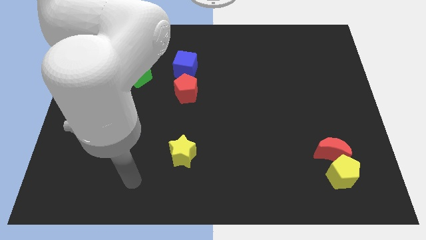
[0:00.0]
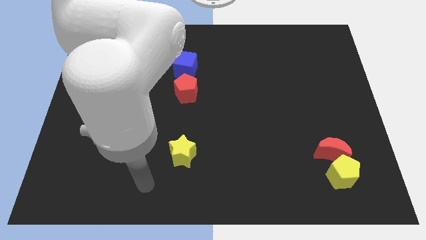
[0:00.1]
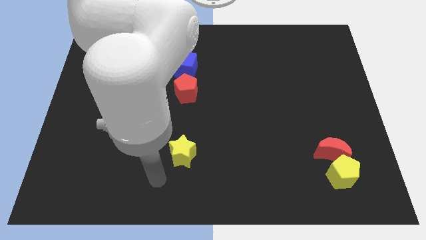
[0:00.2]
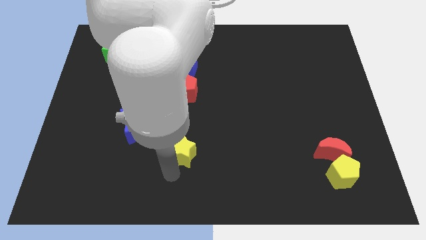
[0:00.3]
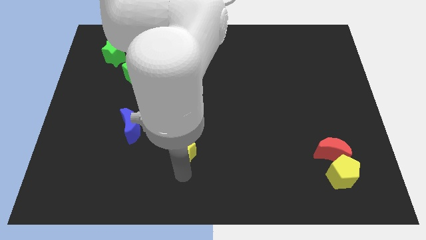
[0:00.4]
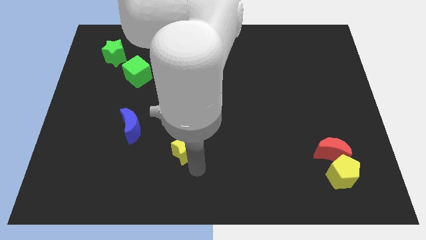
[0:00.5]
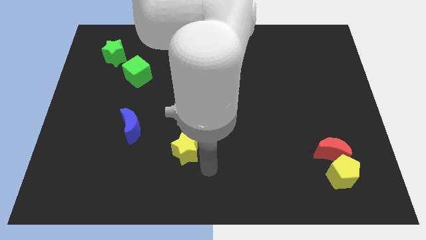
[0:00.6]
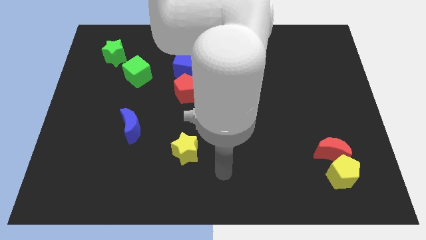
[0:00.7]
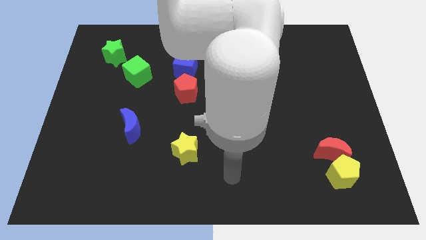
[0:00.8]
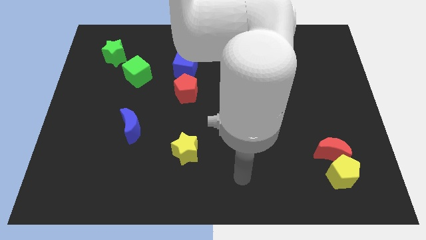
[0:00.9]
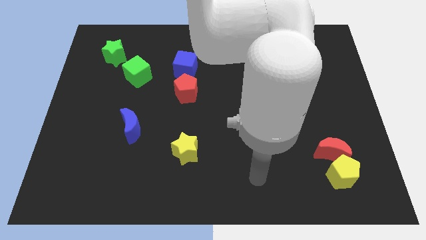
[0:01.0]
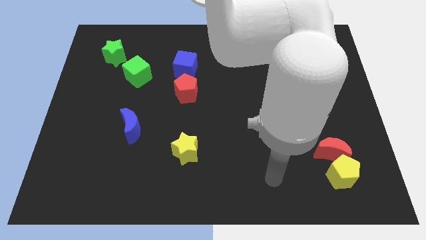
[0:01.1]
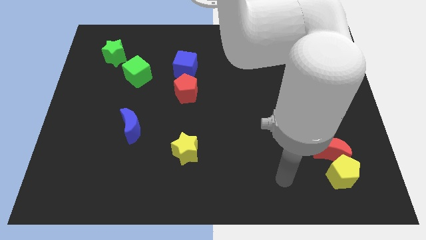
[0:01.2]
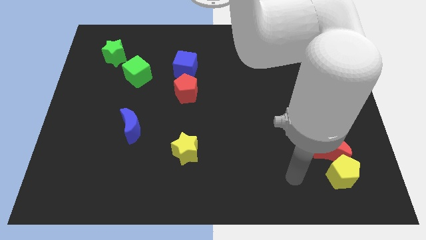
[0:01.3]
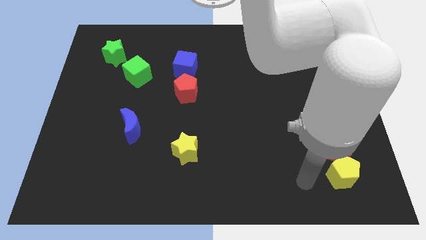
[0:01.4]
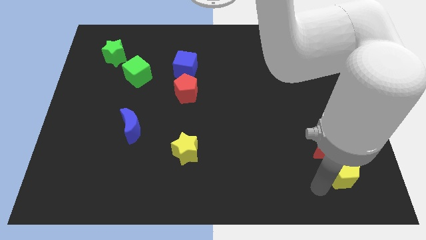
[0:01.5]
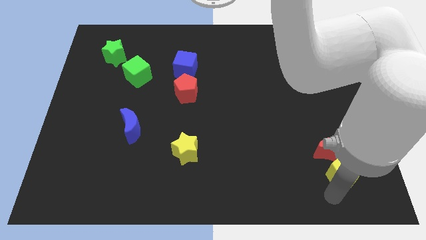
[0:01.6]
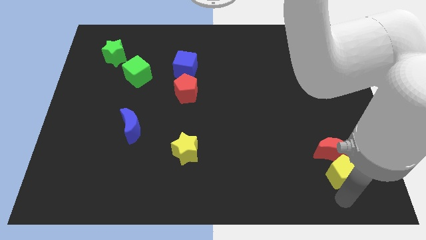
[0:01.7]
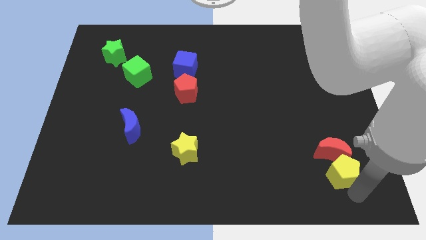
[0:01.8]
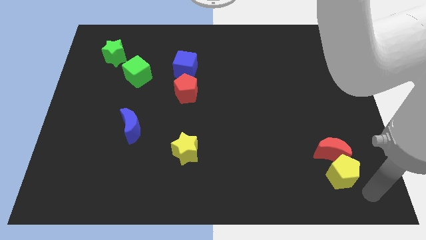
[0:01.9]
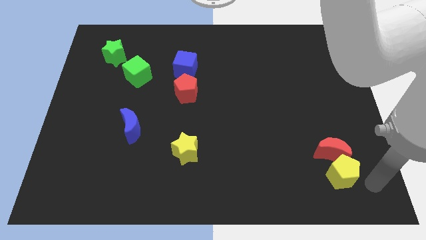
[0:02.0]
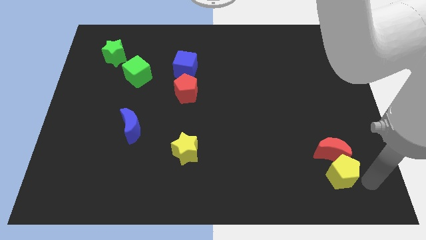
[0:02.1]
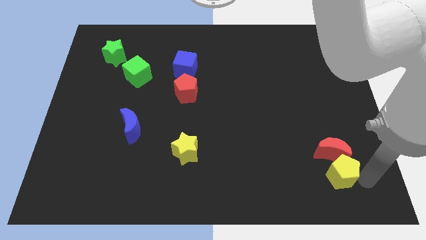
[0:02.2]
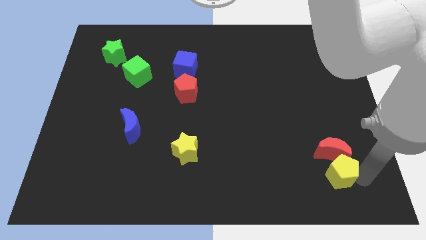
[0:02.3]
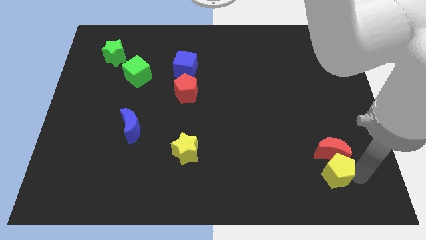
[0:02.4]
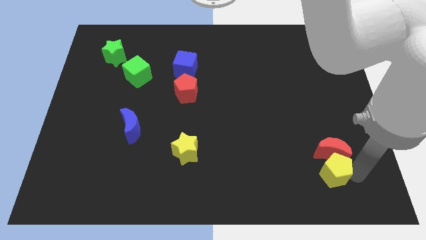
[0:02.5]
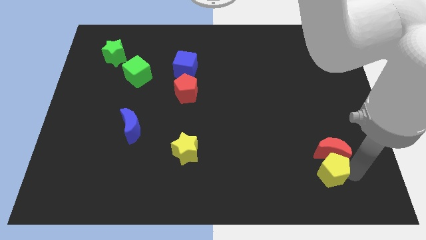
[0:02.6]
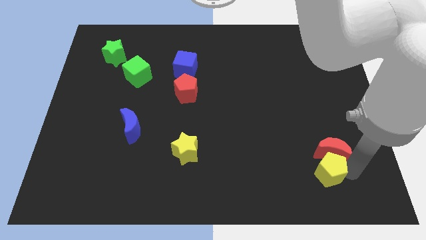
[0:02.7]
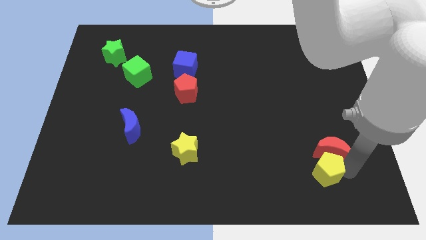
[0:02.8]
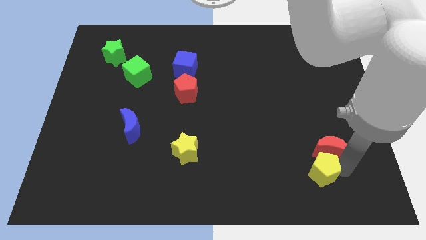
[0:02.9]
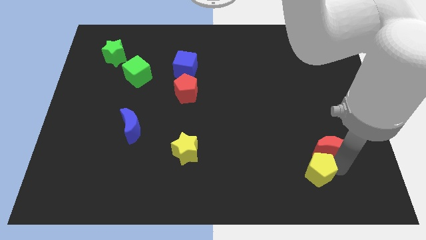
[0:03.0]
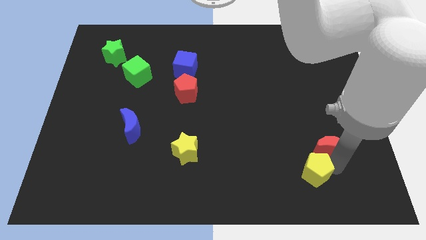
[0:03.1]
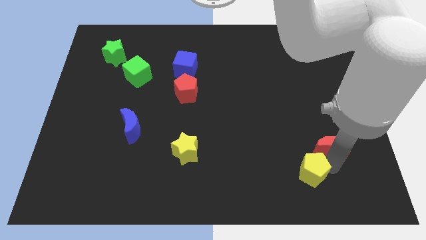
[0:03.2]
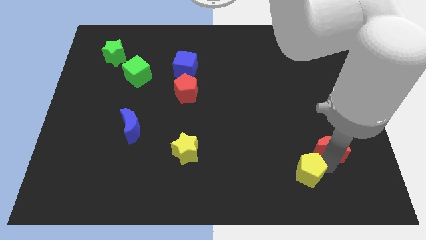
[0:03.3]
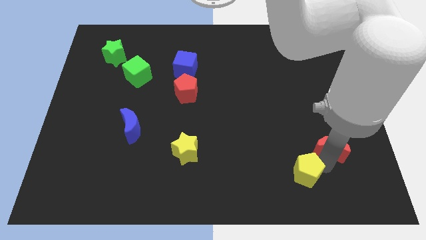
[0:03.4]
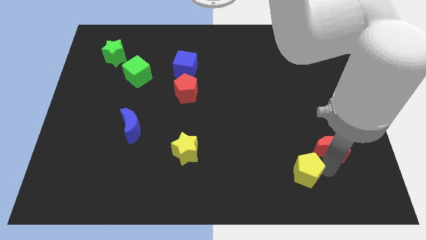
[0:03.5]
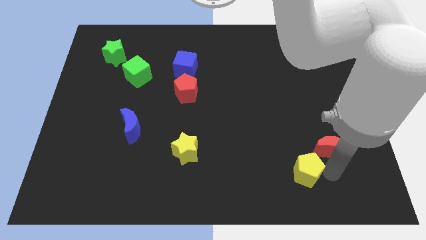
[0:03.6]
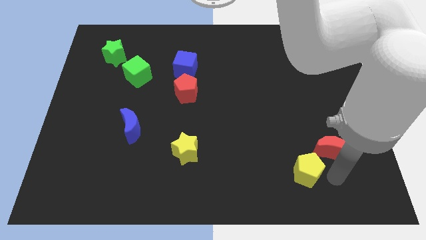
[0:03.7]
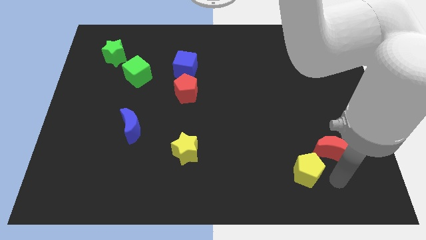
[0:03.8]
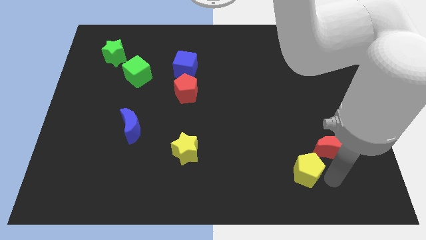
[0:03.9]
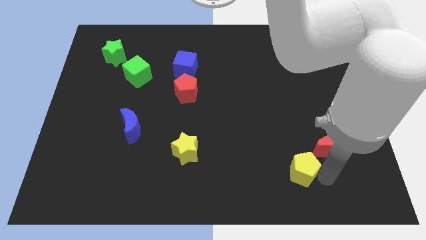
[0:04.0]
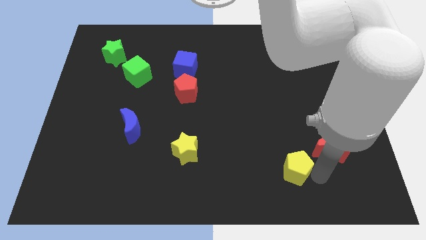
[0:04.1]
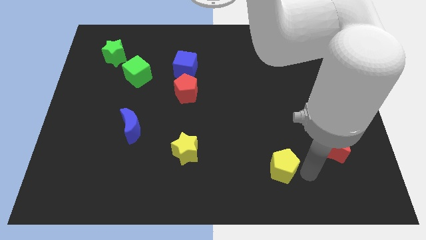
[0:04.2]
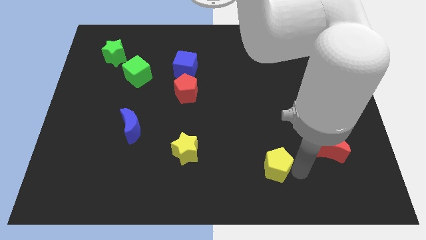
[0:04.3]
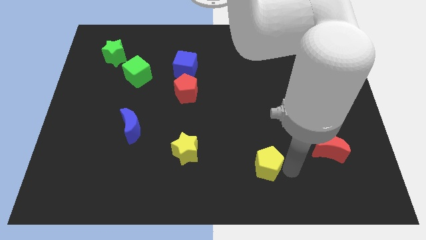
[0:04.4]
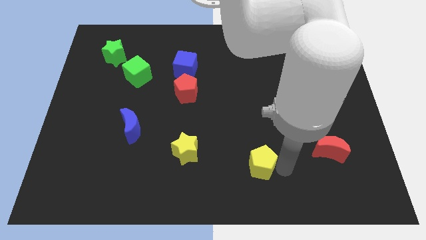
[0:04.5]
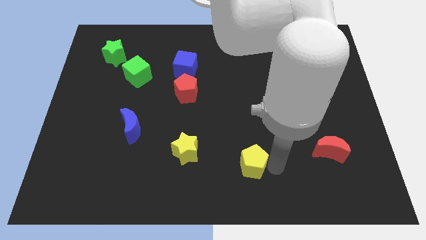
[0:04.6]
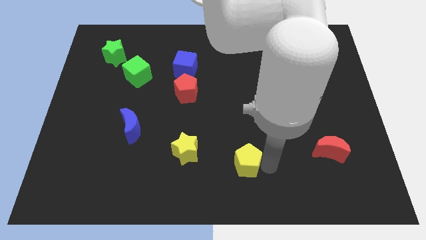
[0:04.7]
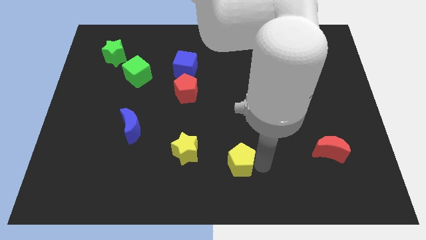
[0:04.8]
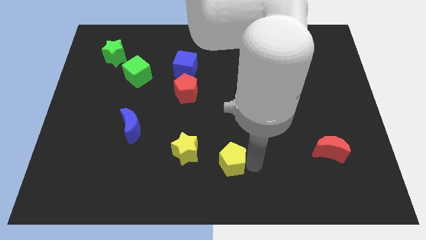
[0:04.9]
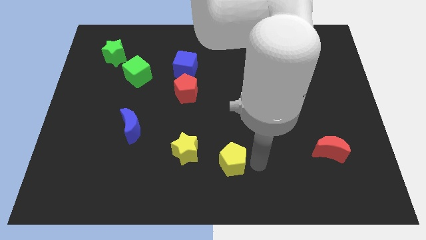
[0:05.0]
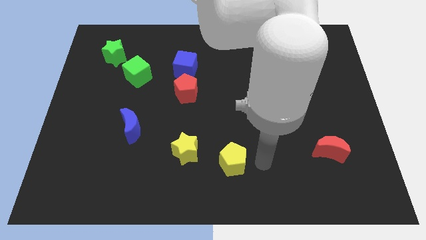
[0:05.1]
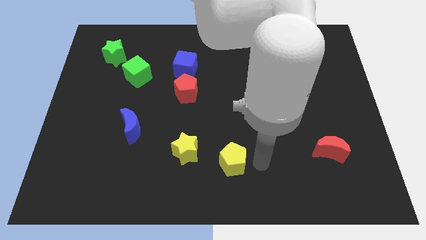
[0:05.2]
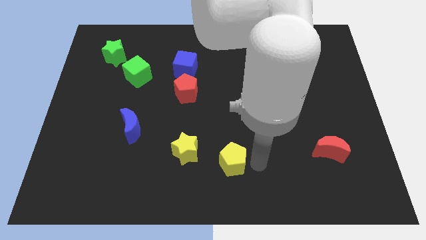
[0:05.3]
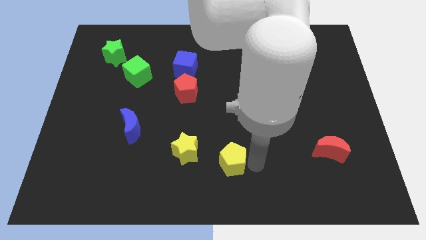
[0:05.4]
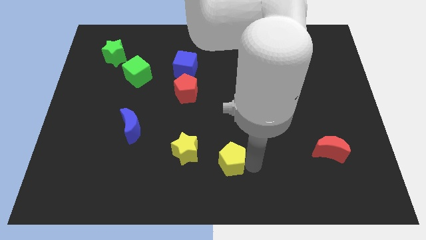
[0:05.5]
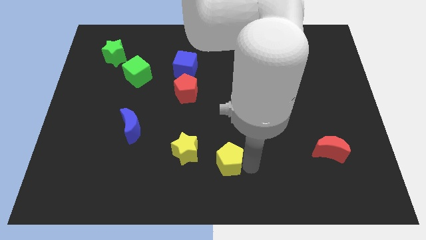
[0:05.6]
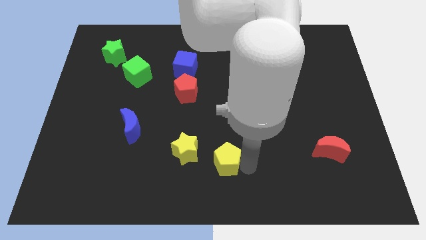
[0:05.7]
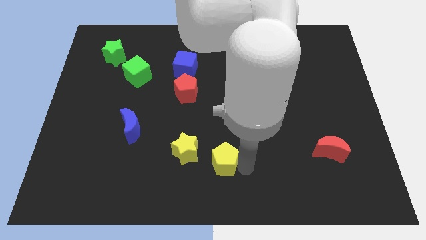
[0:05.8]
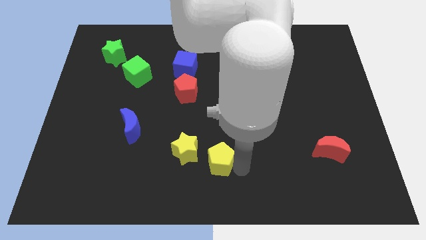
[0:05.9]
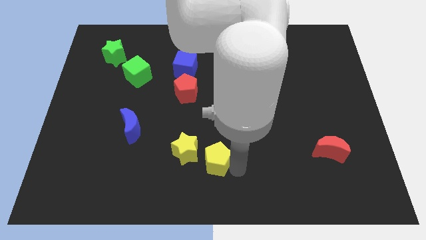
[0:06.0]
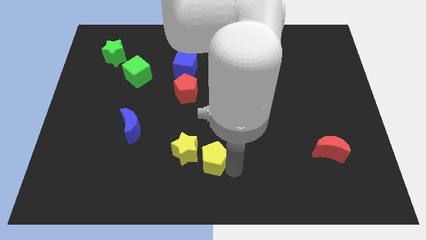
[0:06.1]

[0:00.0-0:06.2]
slide the yellow pentagon to the yellow star

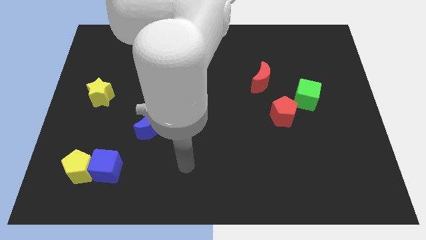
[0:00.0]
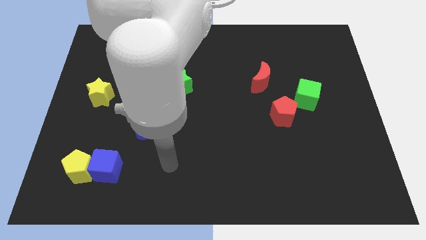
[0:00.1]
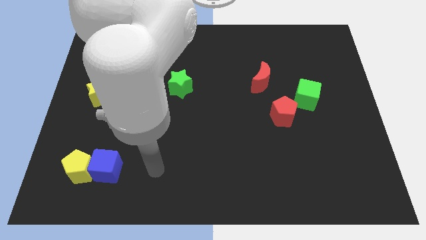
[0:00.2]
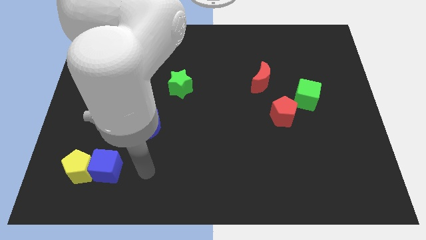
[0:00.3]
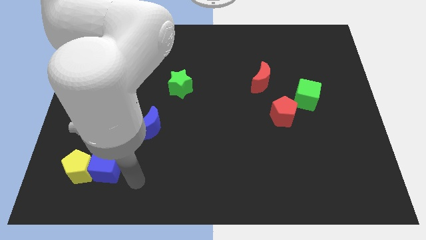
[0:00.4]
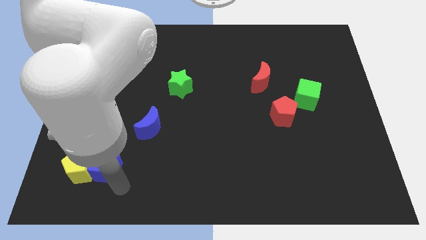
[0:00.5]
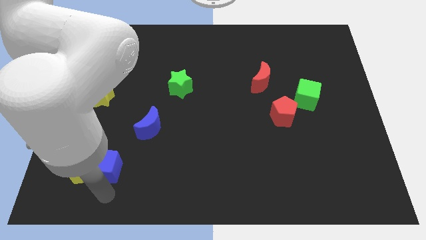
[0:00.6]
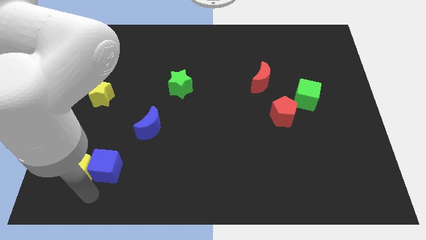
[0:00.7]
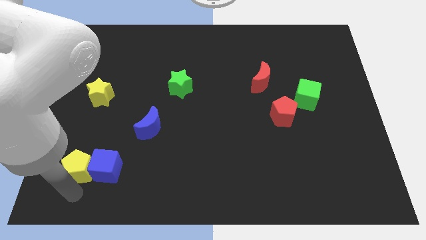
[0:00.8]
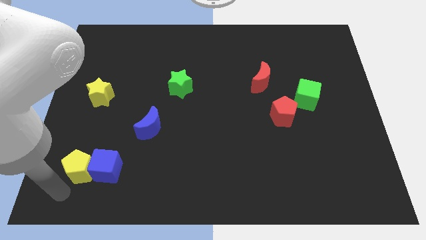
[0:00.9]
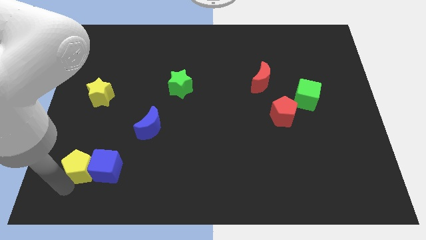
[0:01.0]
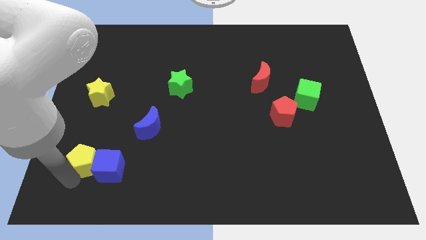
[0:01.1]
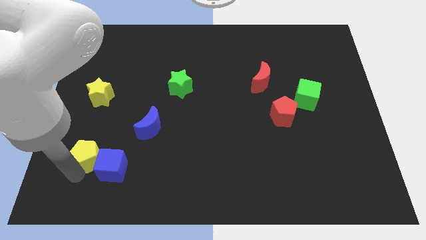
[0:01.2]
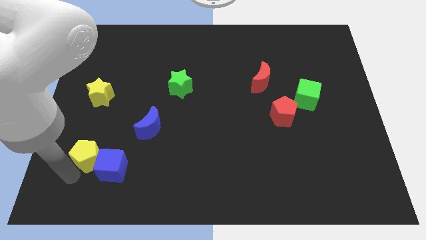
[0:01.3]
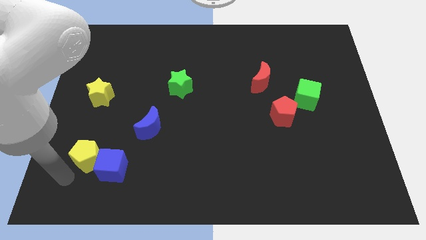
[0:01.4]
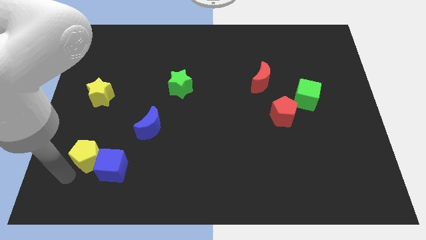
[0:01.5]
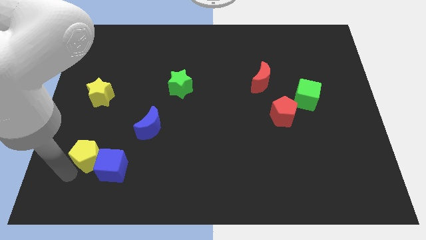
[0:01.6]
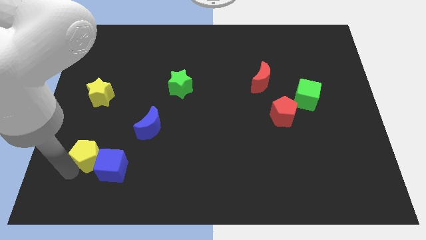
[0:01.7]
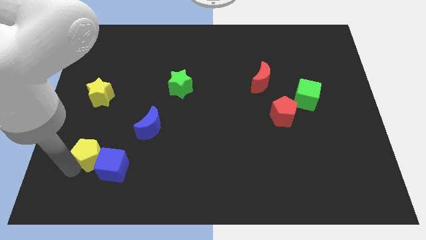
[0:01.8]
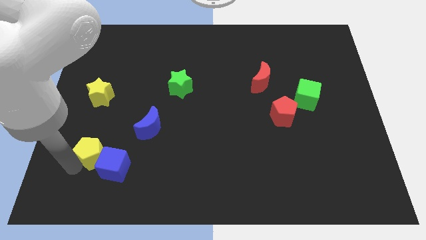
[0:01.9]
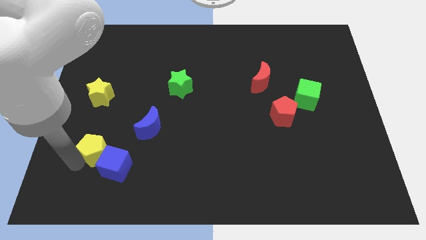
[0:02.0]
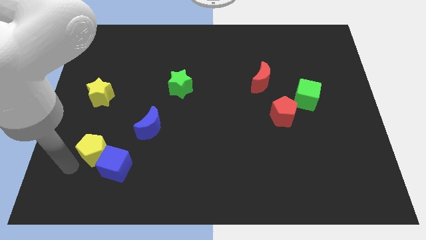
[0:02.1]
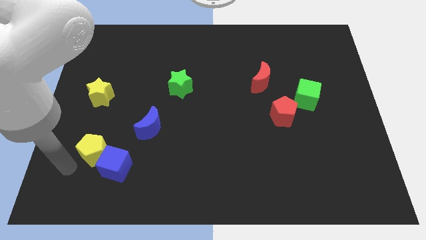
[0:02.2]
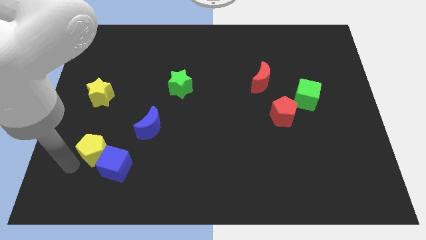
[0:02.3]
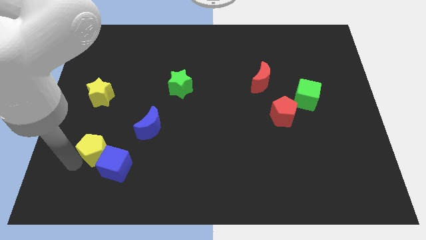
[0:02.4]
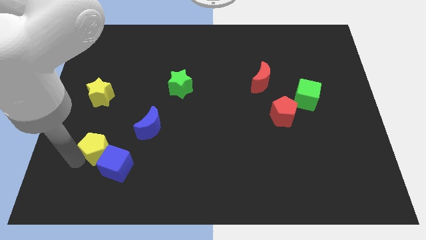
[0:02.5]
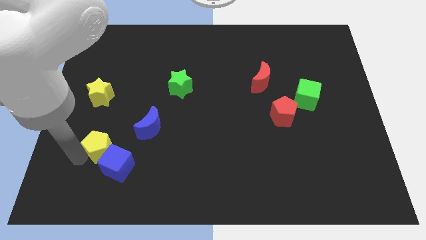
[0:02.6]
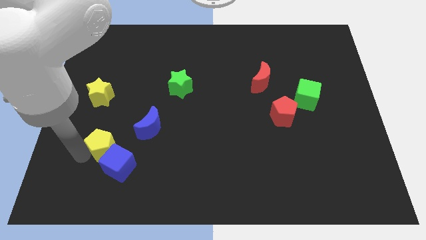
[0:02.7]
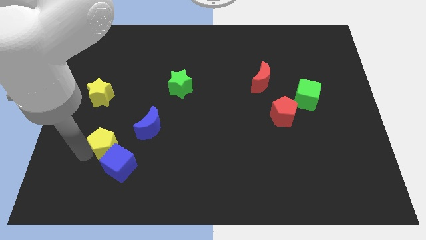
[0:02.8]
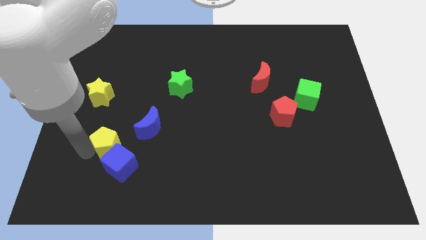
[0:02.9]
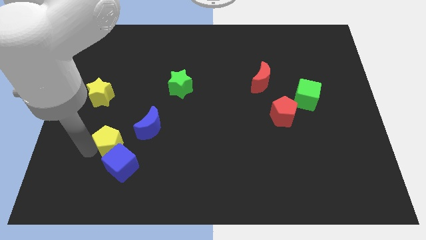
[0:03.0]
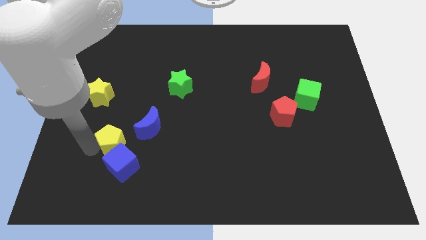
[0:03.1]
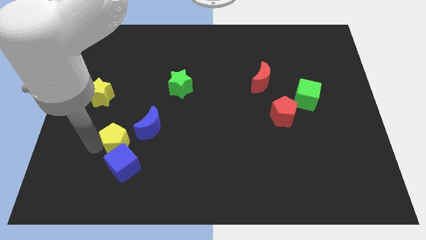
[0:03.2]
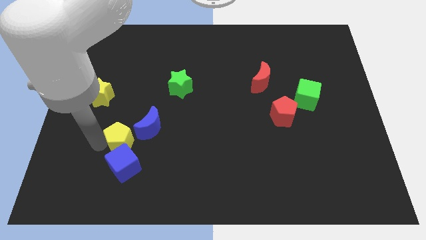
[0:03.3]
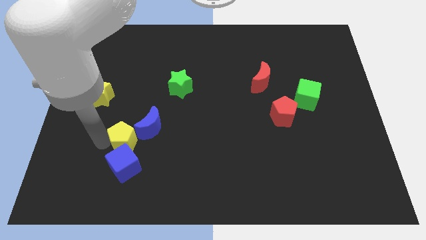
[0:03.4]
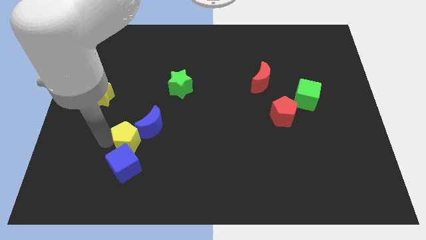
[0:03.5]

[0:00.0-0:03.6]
move the yellow pentagon close to the blue moon
